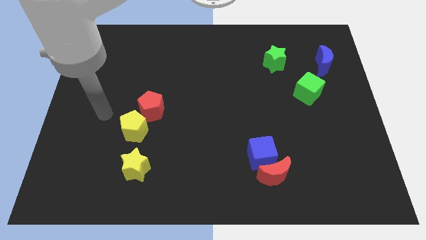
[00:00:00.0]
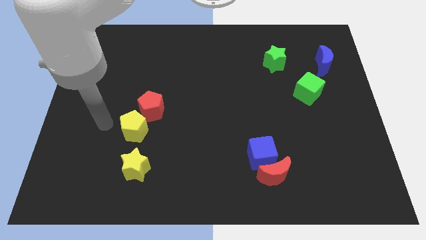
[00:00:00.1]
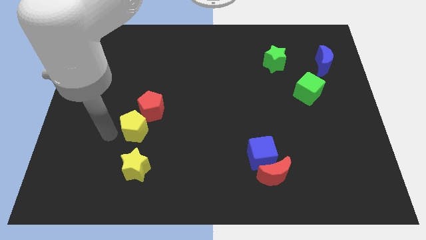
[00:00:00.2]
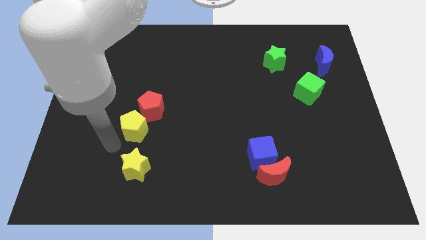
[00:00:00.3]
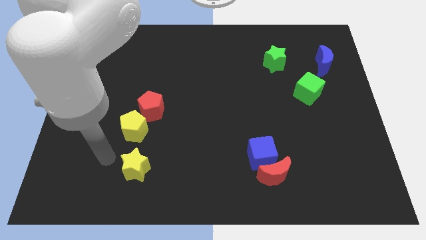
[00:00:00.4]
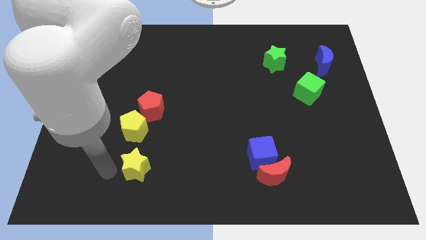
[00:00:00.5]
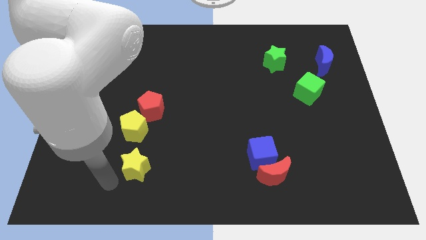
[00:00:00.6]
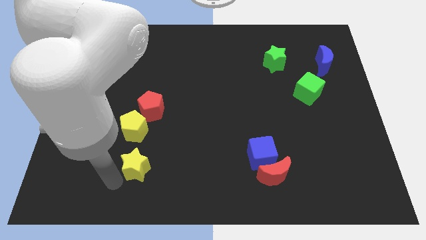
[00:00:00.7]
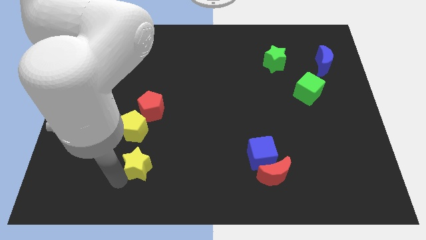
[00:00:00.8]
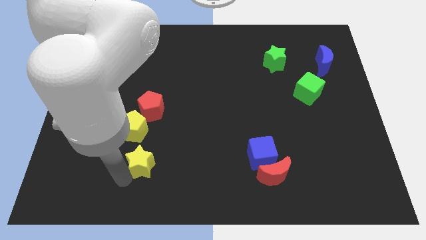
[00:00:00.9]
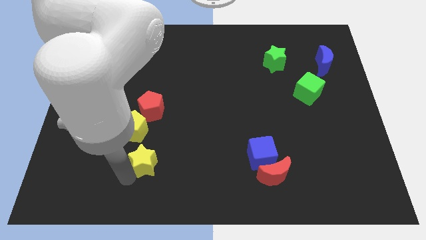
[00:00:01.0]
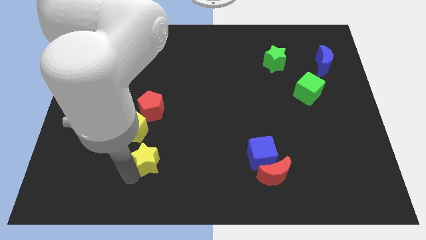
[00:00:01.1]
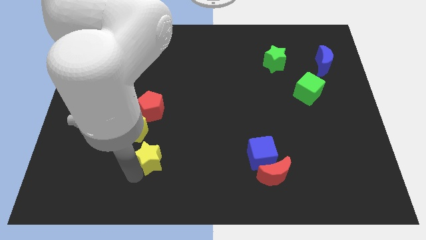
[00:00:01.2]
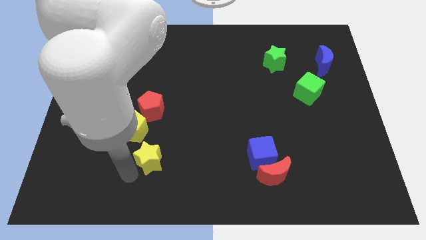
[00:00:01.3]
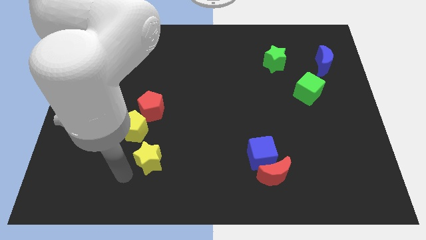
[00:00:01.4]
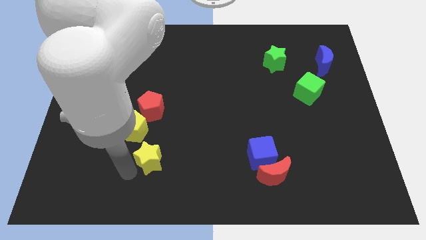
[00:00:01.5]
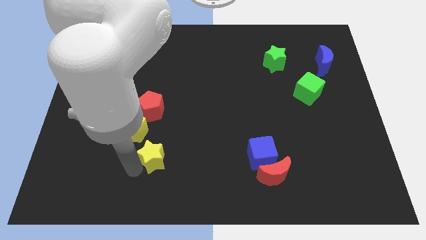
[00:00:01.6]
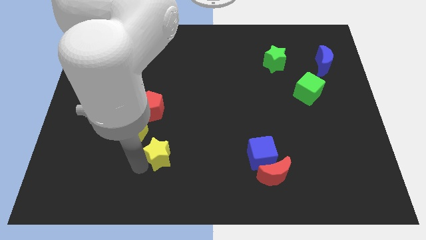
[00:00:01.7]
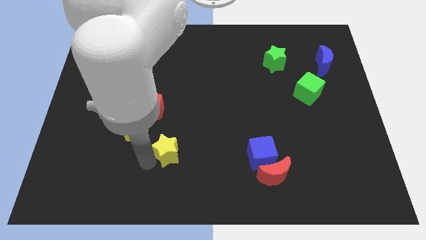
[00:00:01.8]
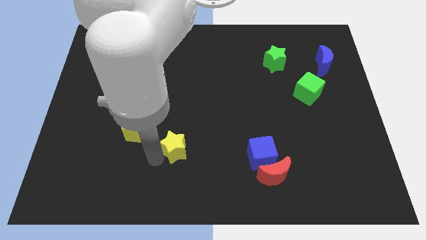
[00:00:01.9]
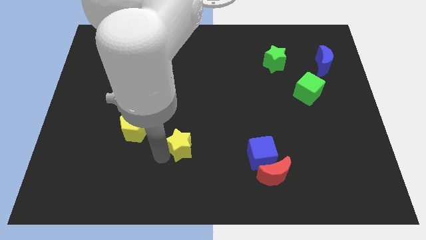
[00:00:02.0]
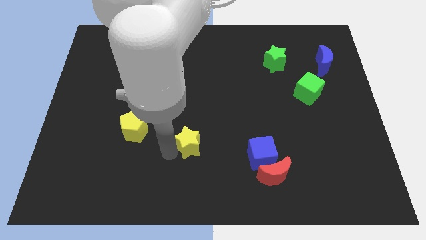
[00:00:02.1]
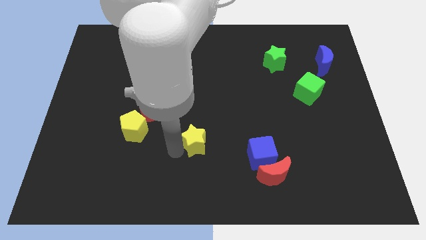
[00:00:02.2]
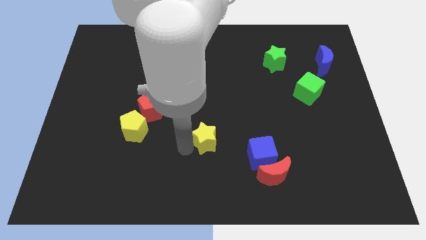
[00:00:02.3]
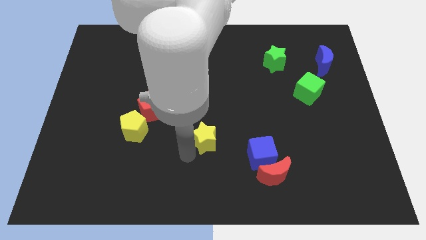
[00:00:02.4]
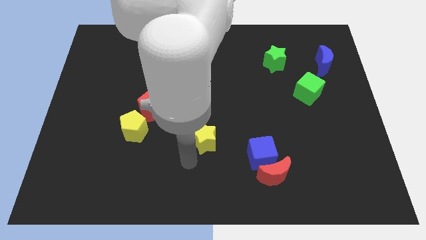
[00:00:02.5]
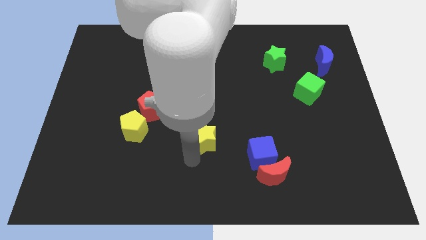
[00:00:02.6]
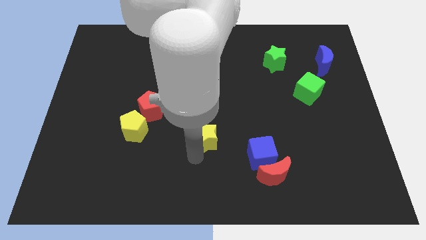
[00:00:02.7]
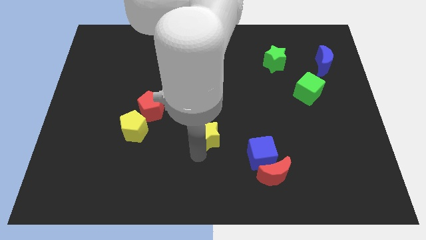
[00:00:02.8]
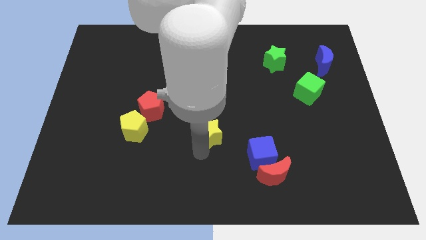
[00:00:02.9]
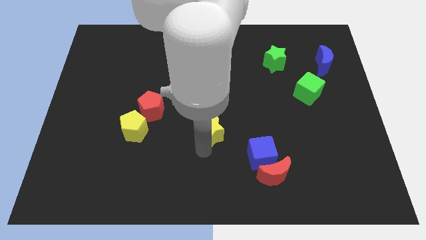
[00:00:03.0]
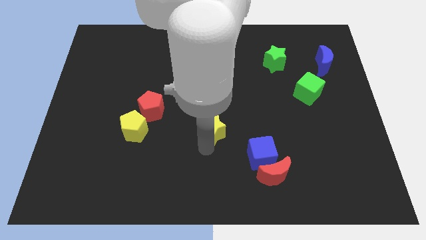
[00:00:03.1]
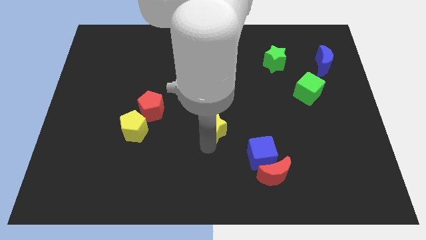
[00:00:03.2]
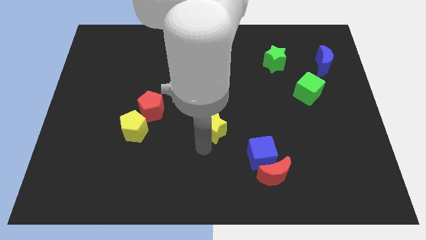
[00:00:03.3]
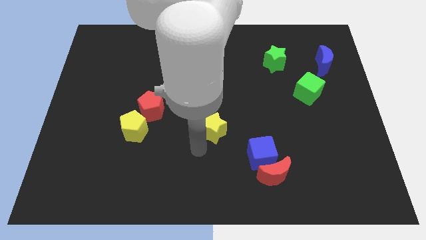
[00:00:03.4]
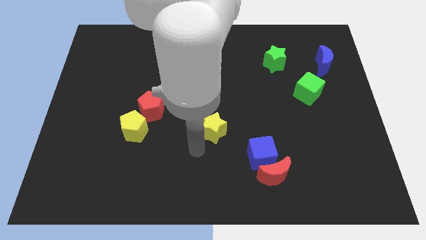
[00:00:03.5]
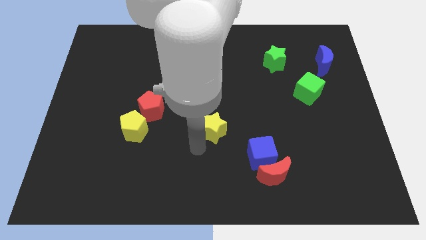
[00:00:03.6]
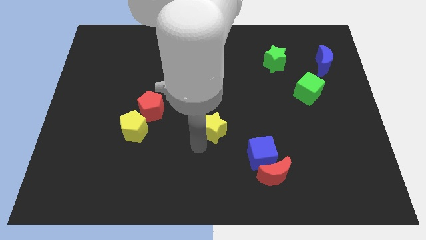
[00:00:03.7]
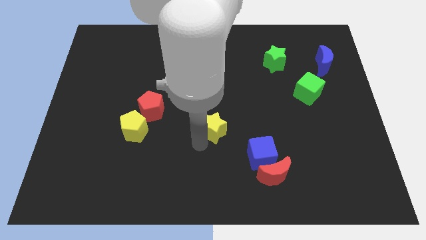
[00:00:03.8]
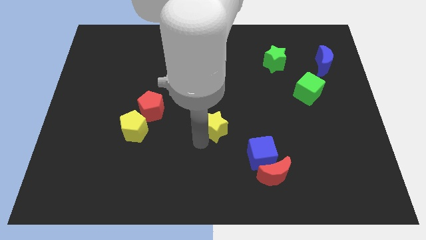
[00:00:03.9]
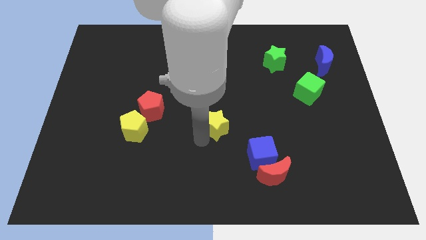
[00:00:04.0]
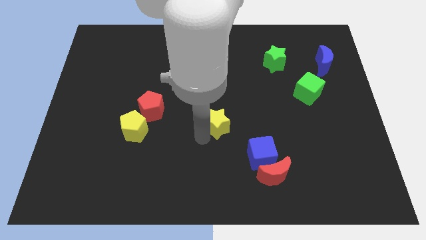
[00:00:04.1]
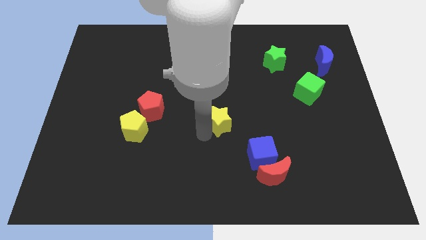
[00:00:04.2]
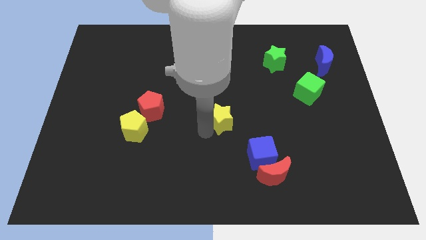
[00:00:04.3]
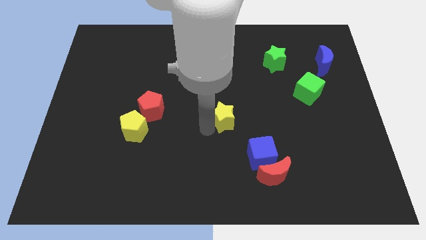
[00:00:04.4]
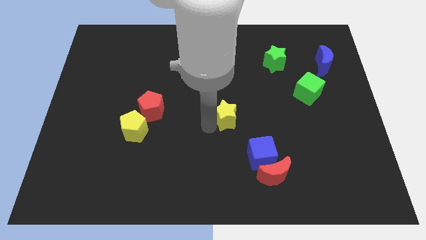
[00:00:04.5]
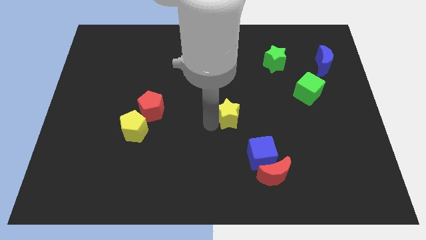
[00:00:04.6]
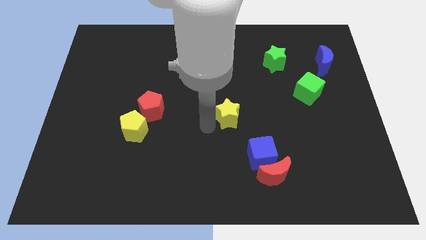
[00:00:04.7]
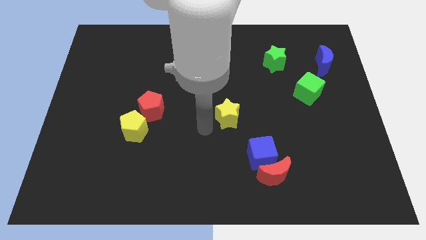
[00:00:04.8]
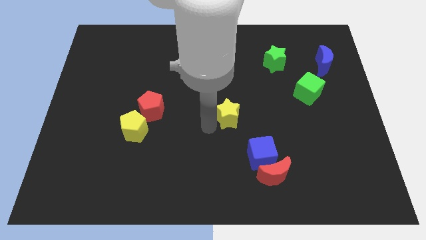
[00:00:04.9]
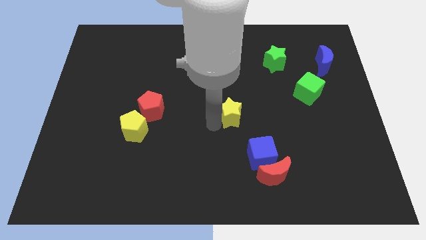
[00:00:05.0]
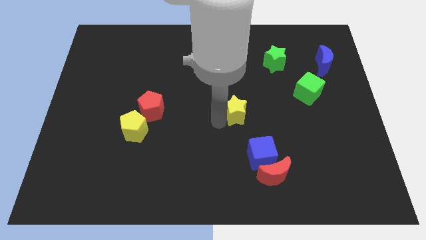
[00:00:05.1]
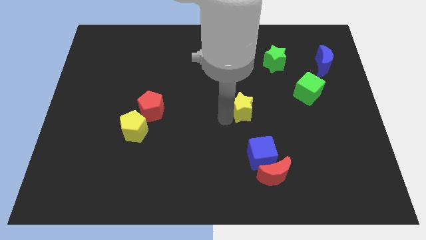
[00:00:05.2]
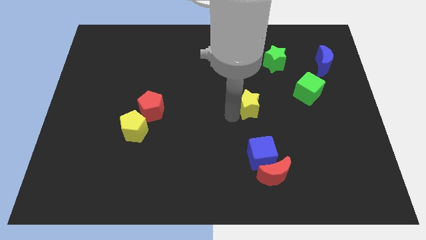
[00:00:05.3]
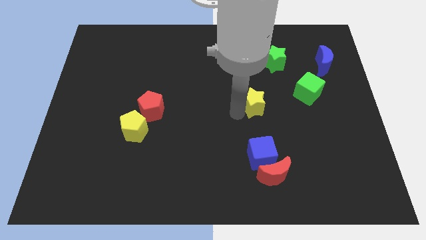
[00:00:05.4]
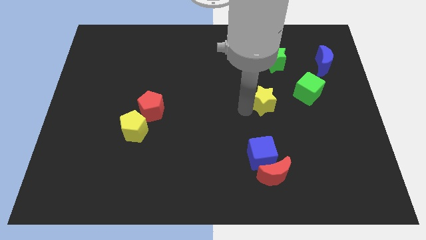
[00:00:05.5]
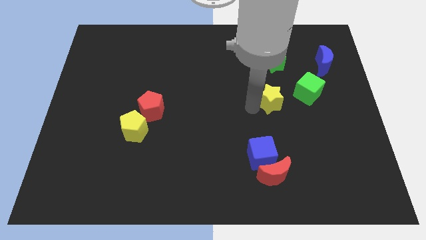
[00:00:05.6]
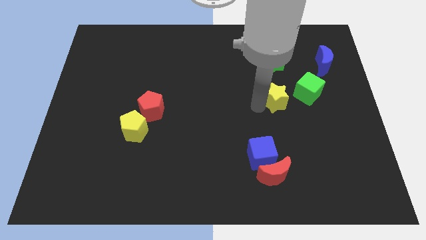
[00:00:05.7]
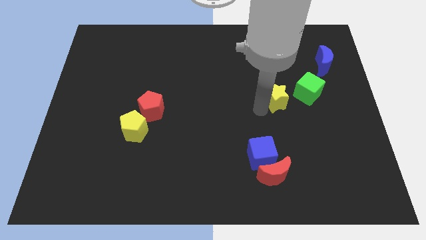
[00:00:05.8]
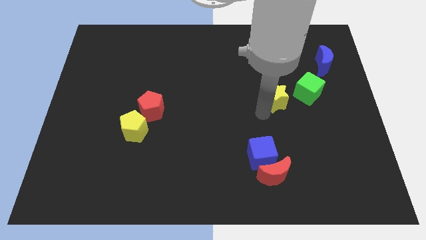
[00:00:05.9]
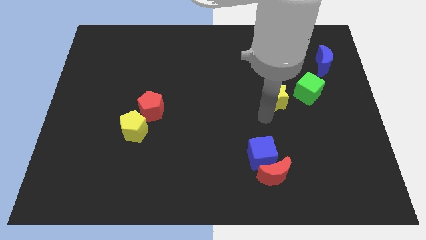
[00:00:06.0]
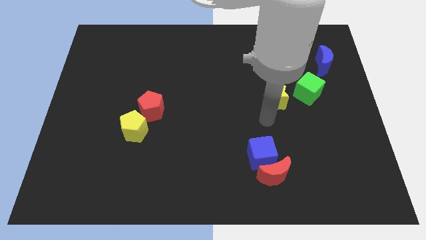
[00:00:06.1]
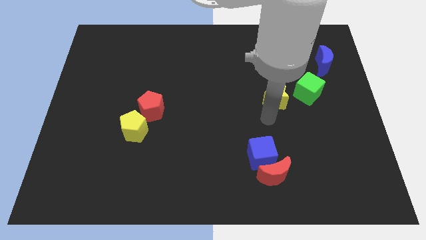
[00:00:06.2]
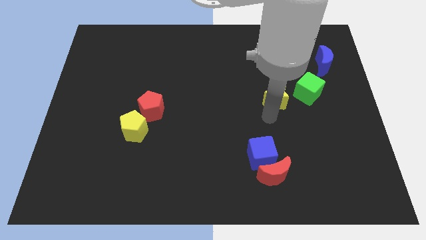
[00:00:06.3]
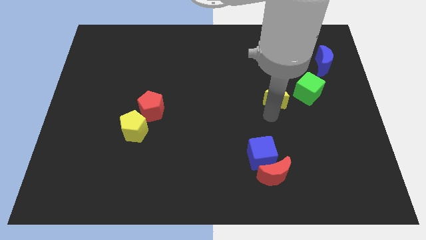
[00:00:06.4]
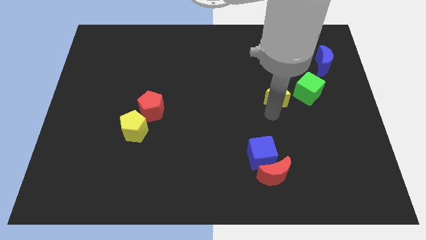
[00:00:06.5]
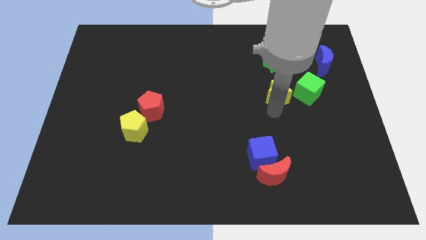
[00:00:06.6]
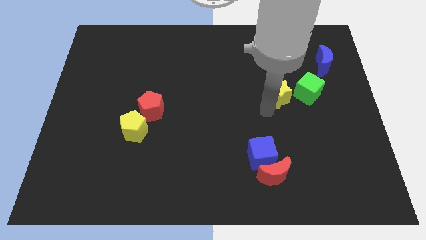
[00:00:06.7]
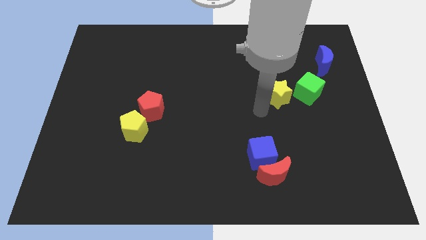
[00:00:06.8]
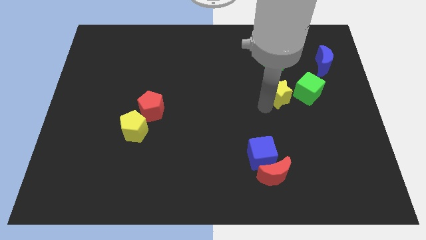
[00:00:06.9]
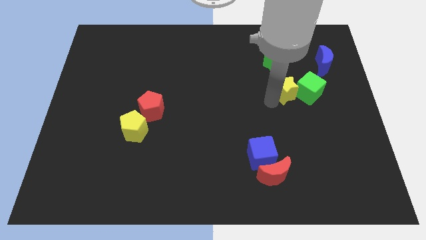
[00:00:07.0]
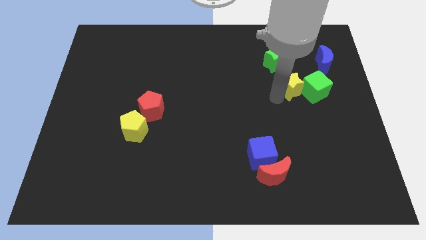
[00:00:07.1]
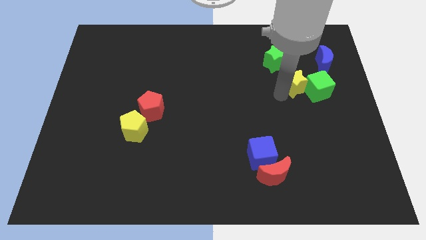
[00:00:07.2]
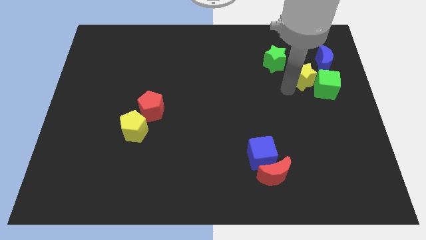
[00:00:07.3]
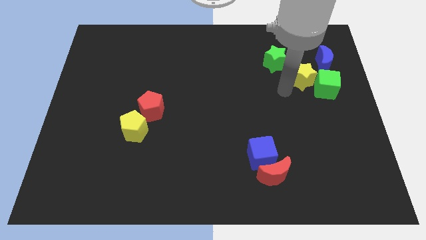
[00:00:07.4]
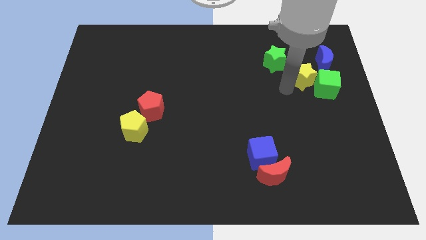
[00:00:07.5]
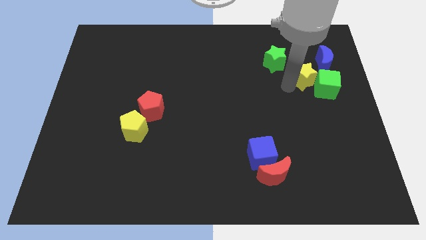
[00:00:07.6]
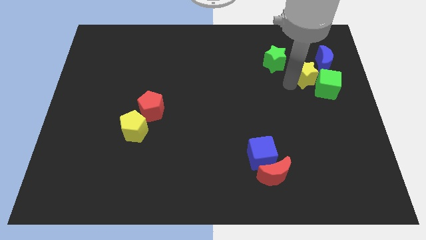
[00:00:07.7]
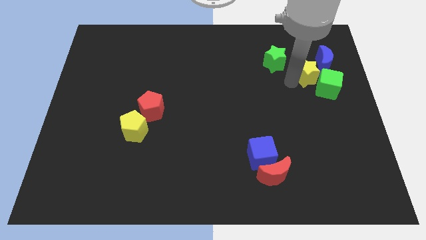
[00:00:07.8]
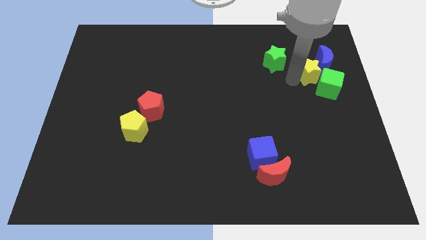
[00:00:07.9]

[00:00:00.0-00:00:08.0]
move the yellow star to the blue moon
